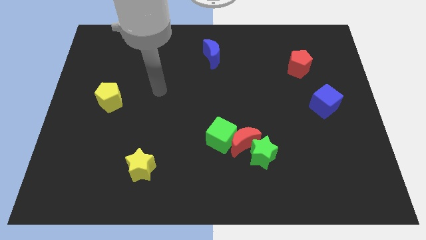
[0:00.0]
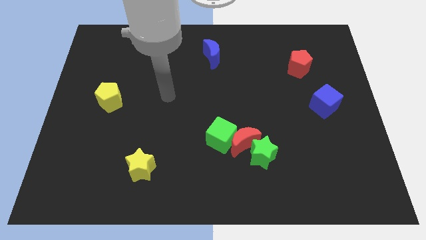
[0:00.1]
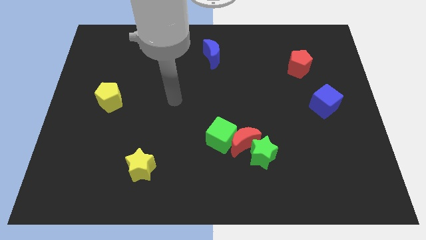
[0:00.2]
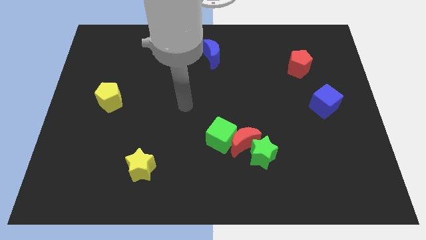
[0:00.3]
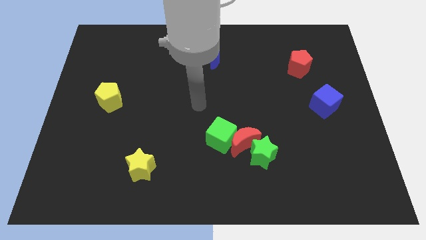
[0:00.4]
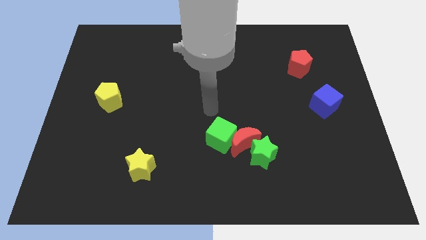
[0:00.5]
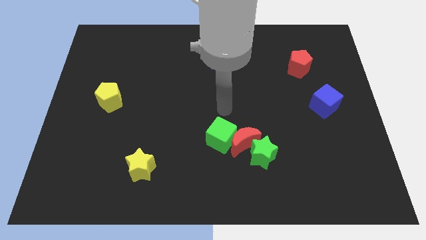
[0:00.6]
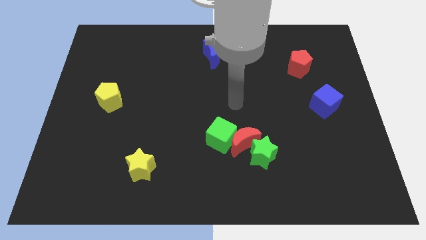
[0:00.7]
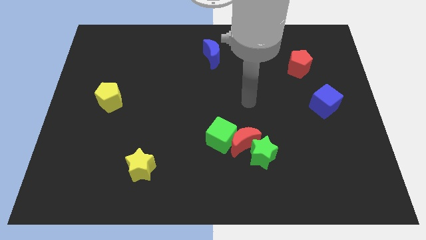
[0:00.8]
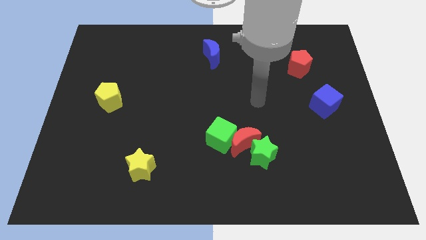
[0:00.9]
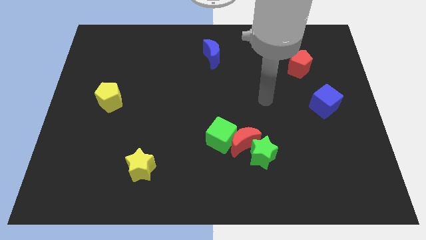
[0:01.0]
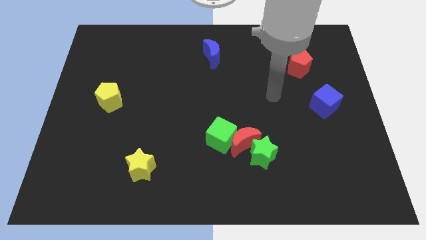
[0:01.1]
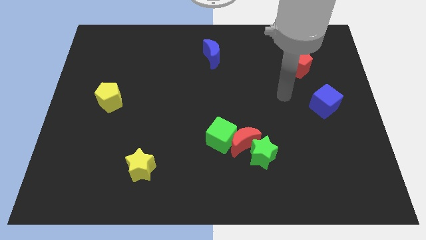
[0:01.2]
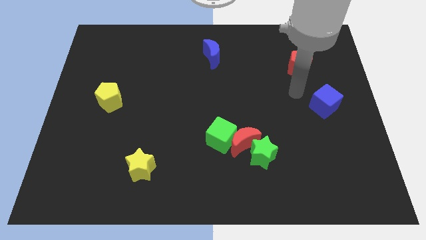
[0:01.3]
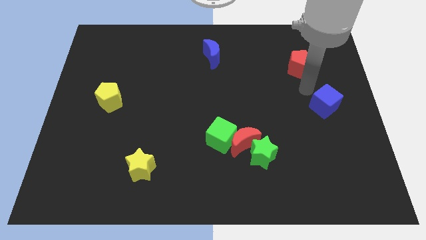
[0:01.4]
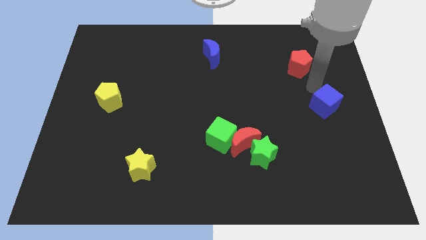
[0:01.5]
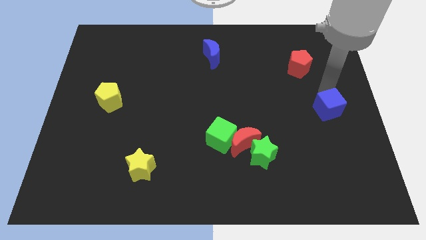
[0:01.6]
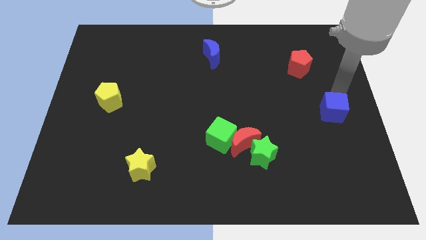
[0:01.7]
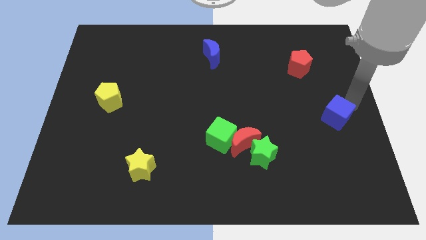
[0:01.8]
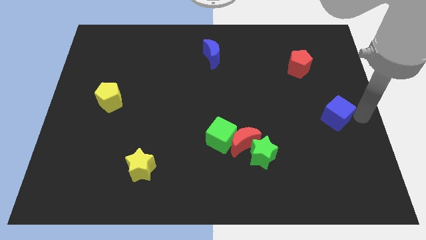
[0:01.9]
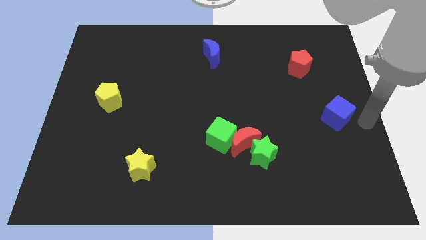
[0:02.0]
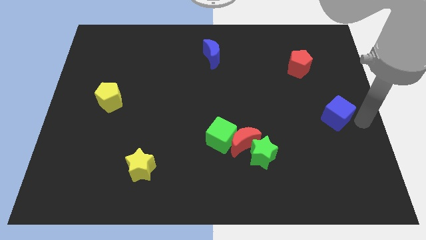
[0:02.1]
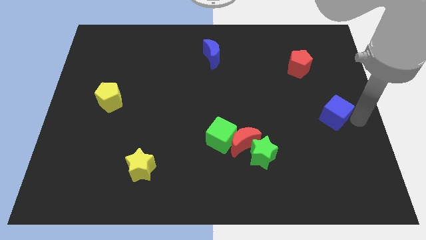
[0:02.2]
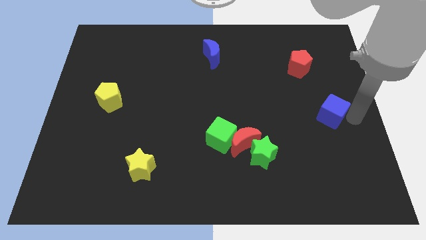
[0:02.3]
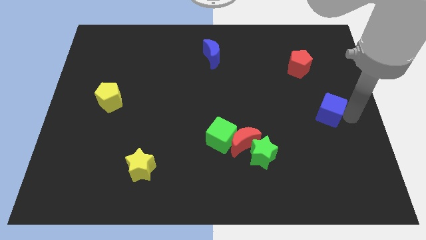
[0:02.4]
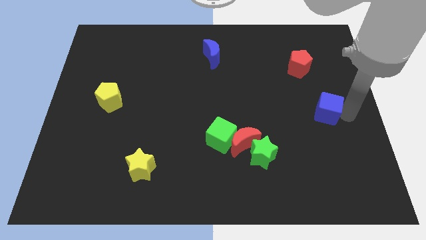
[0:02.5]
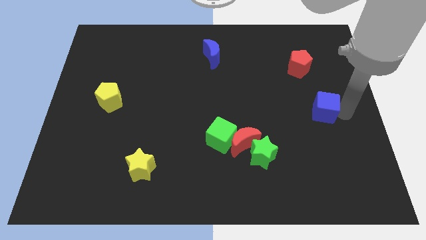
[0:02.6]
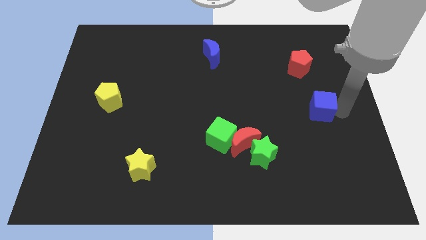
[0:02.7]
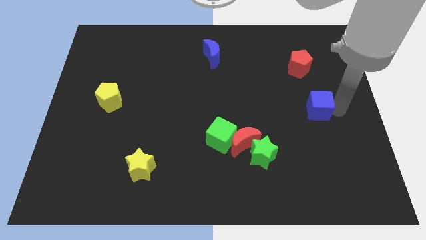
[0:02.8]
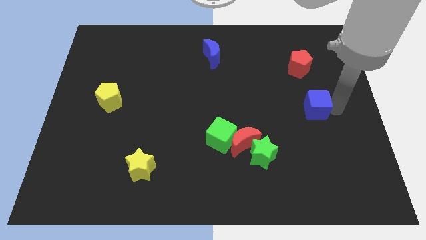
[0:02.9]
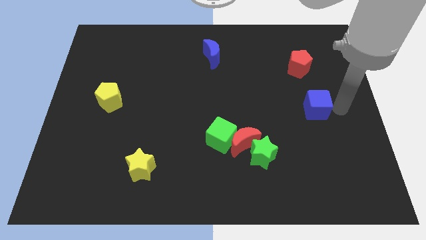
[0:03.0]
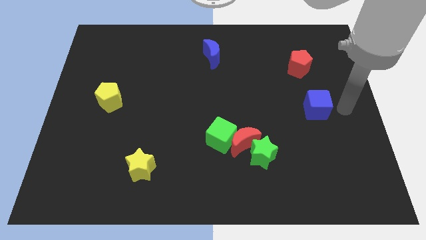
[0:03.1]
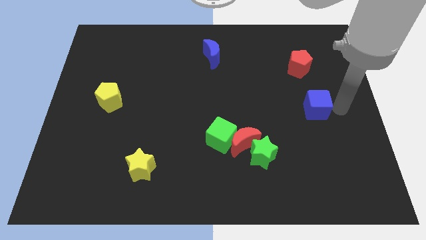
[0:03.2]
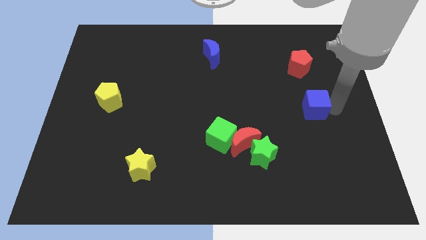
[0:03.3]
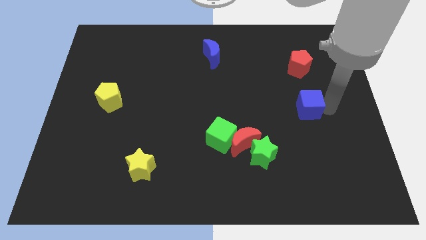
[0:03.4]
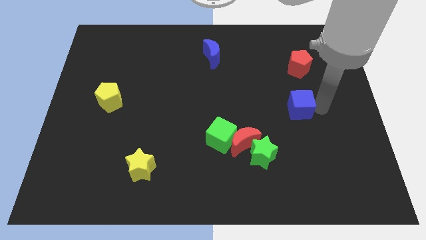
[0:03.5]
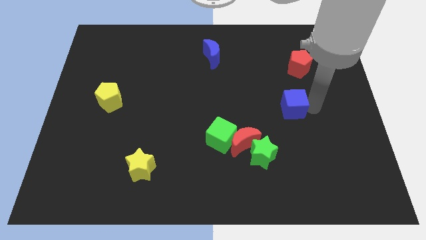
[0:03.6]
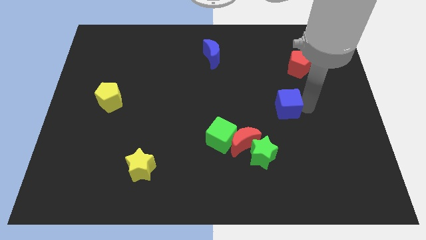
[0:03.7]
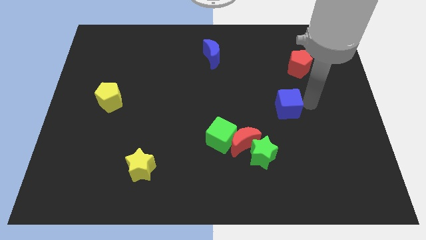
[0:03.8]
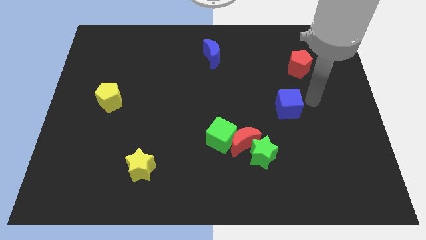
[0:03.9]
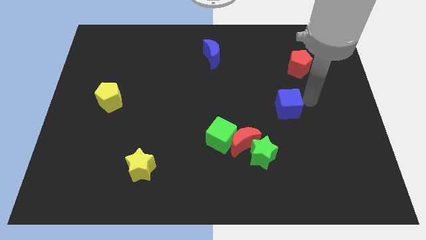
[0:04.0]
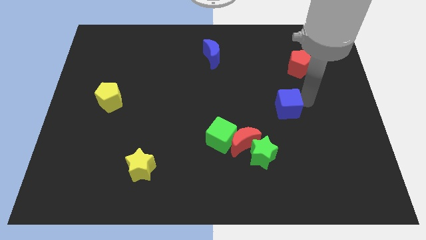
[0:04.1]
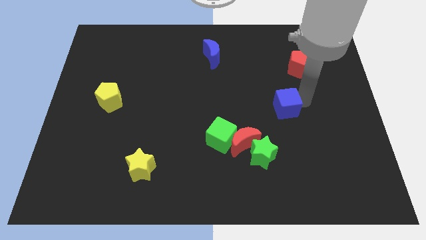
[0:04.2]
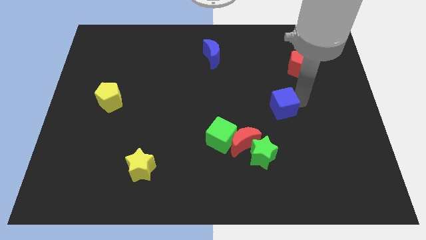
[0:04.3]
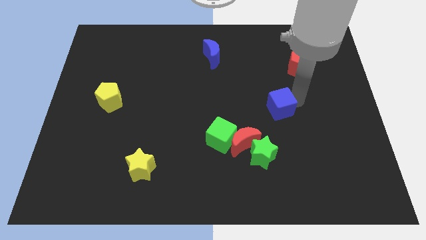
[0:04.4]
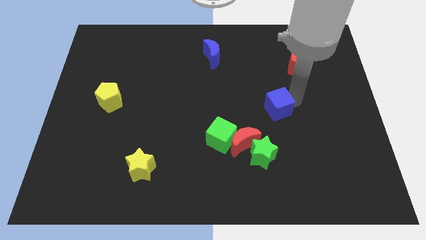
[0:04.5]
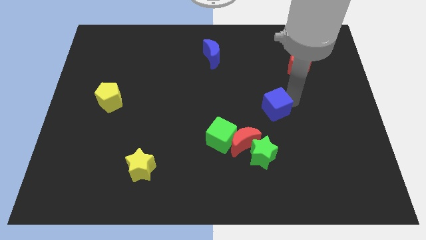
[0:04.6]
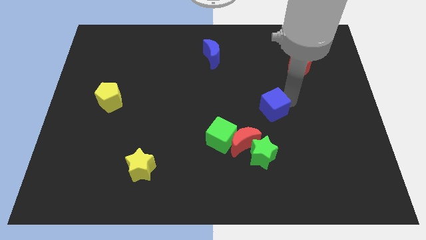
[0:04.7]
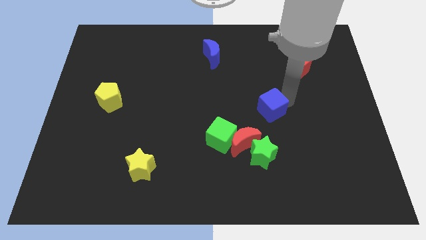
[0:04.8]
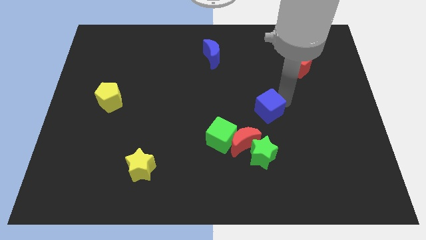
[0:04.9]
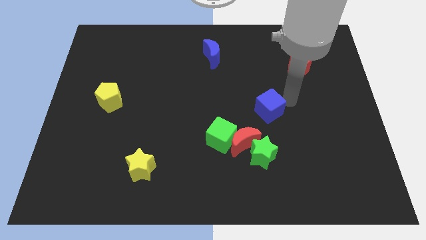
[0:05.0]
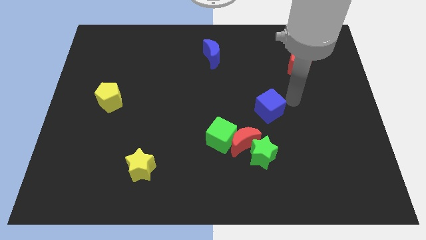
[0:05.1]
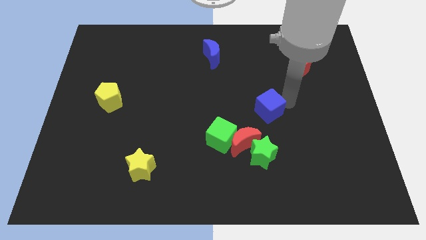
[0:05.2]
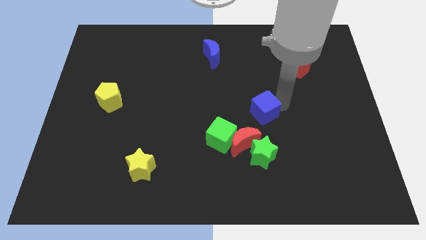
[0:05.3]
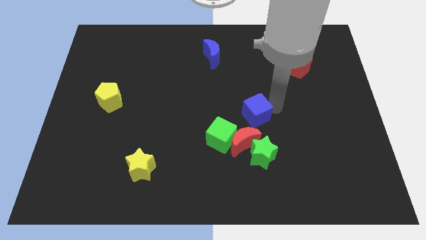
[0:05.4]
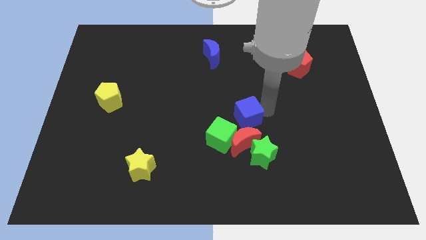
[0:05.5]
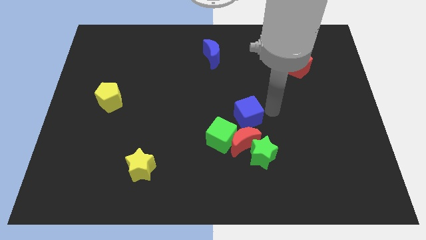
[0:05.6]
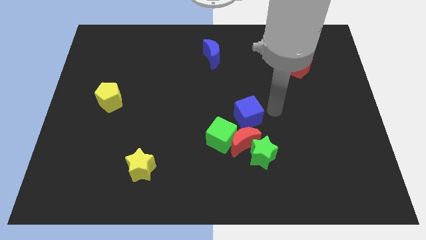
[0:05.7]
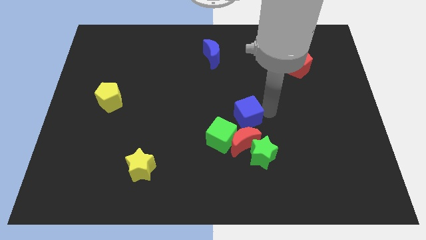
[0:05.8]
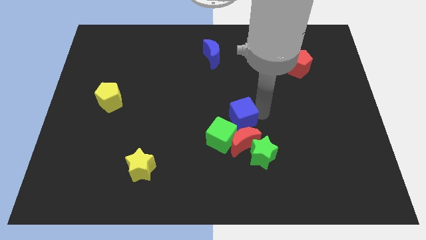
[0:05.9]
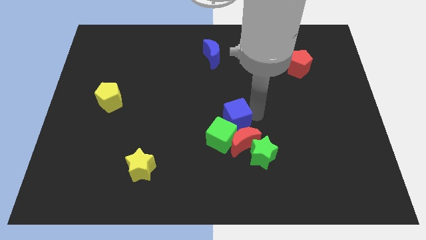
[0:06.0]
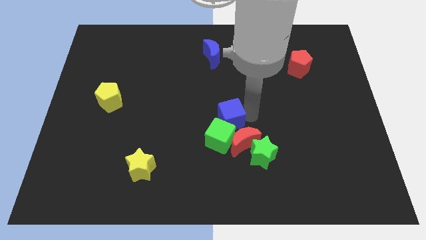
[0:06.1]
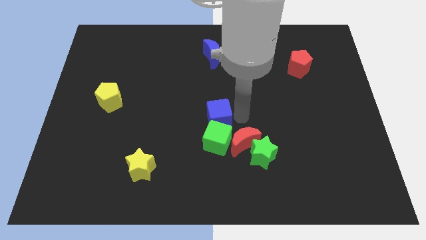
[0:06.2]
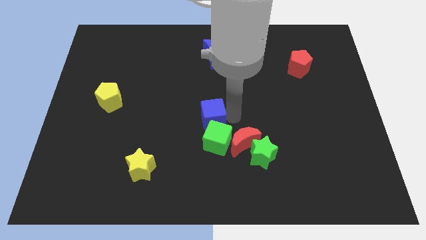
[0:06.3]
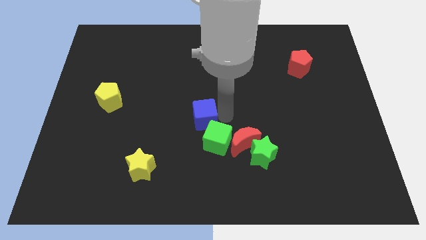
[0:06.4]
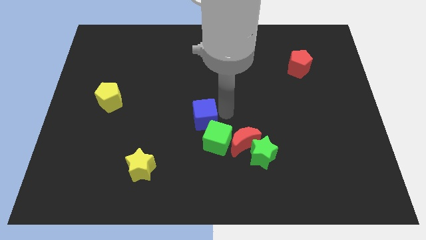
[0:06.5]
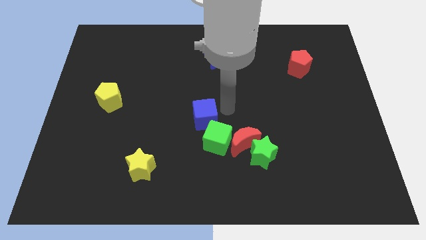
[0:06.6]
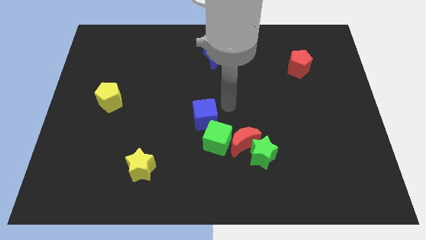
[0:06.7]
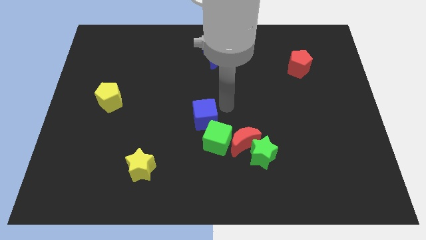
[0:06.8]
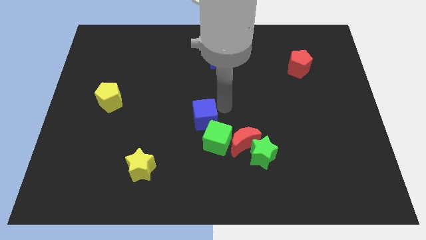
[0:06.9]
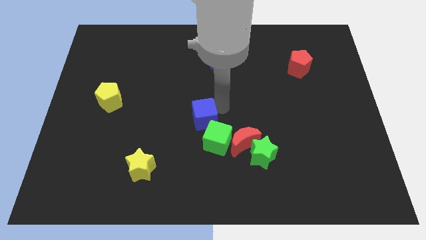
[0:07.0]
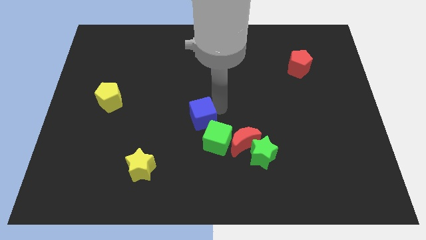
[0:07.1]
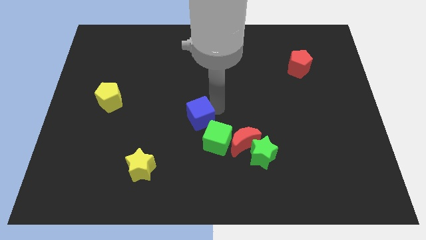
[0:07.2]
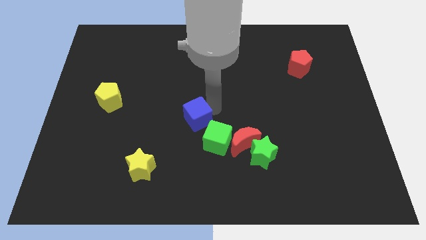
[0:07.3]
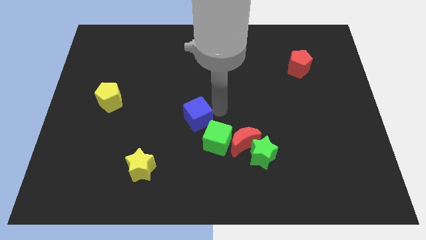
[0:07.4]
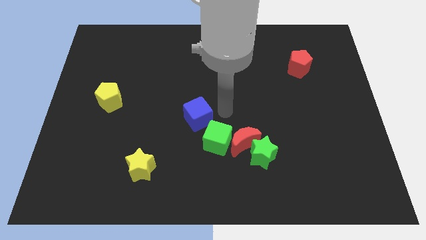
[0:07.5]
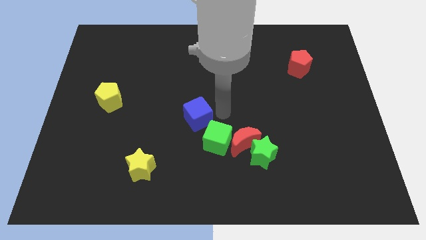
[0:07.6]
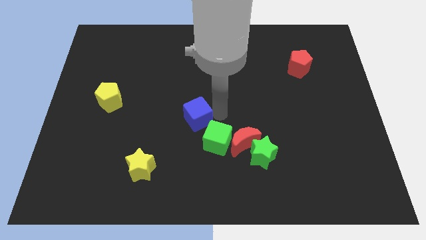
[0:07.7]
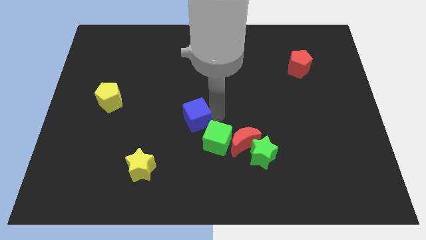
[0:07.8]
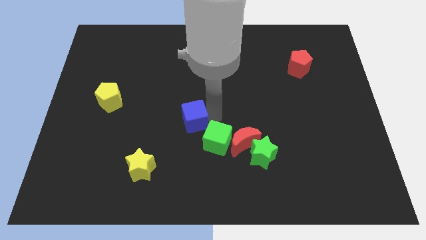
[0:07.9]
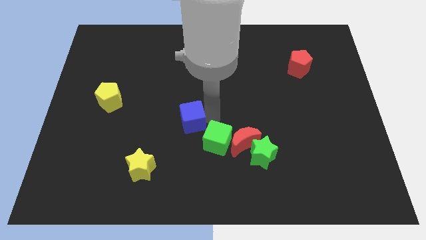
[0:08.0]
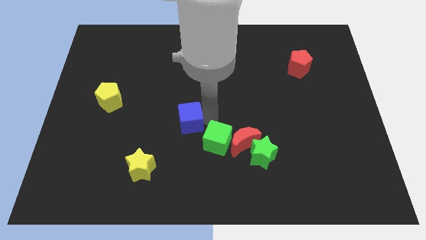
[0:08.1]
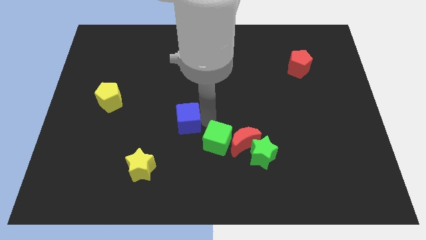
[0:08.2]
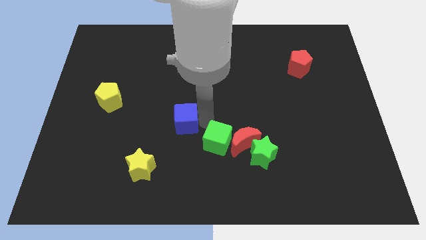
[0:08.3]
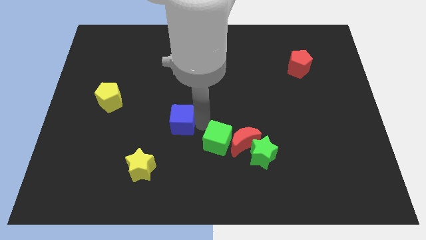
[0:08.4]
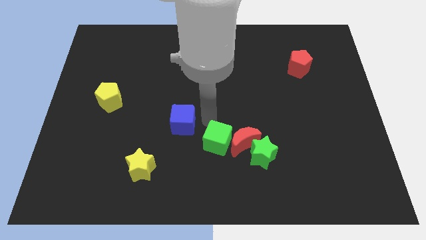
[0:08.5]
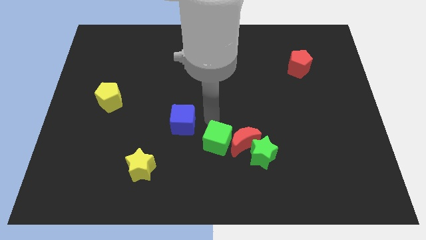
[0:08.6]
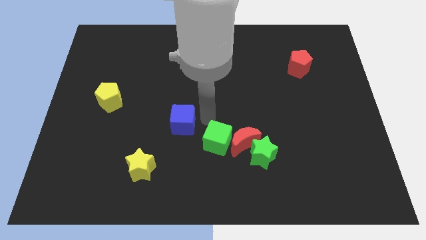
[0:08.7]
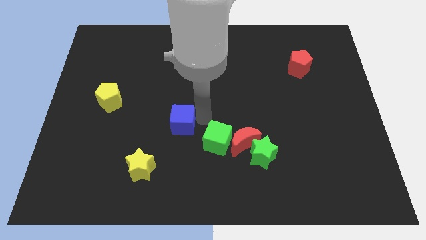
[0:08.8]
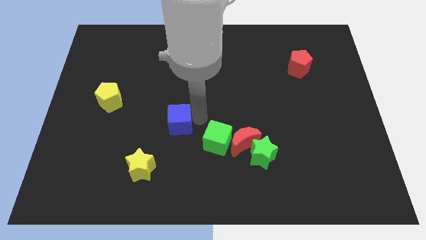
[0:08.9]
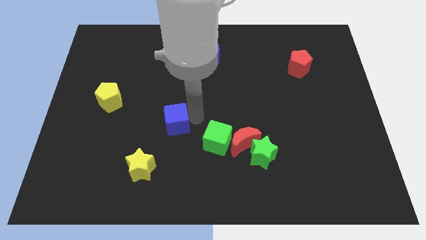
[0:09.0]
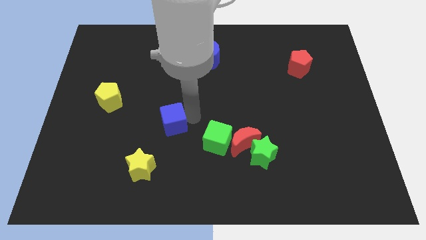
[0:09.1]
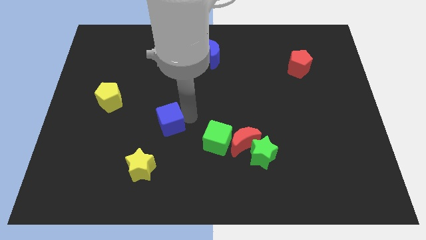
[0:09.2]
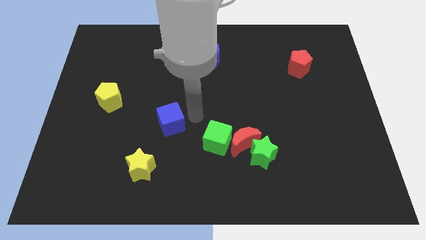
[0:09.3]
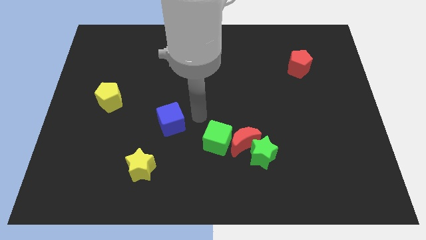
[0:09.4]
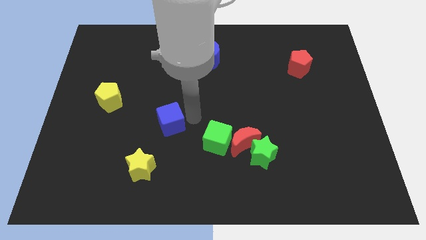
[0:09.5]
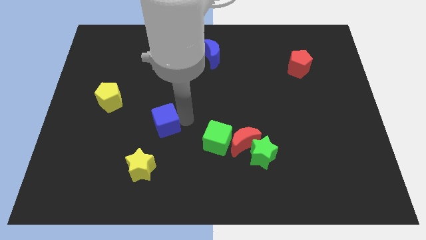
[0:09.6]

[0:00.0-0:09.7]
slide the blue cube to the top side of the yellow star
